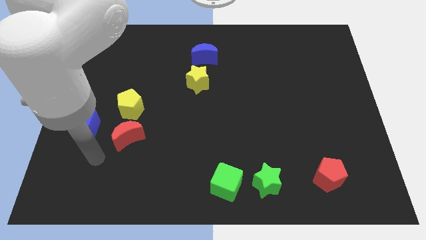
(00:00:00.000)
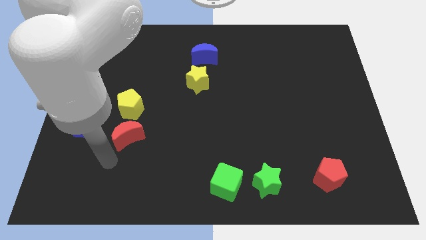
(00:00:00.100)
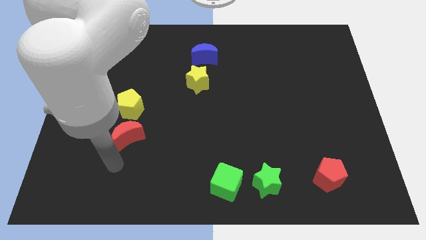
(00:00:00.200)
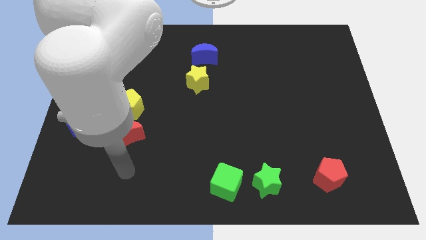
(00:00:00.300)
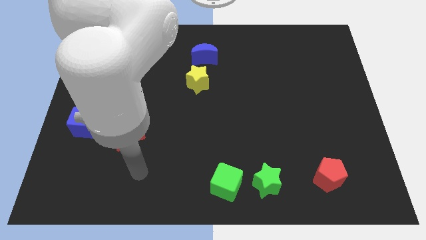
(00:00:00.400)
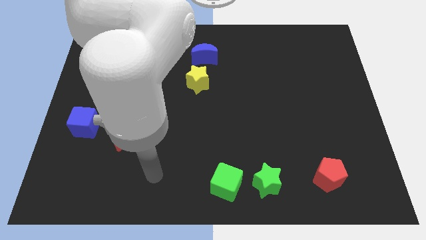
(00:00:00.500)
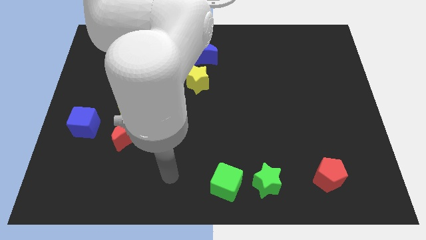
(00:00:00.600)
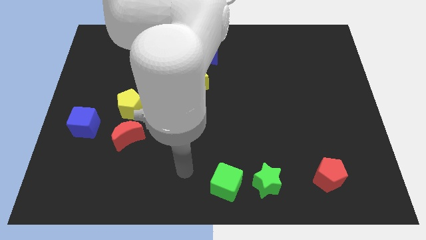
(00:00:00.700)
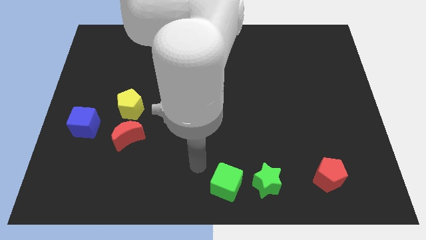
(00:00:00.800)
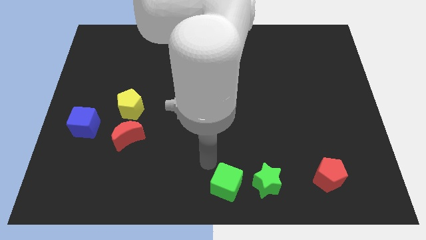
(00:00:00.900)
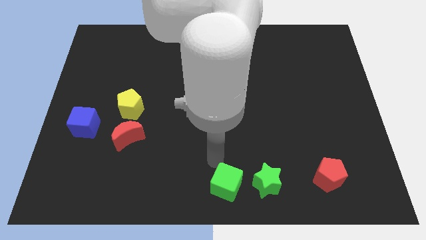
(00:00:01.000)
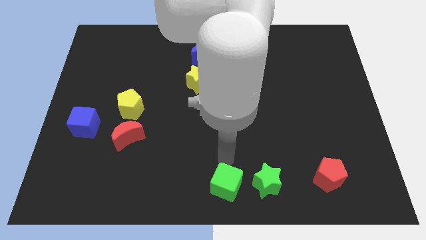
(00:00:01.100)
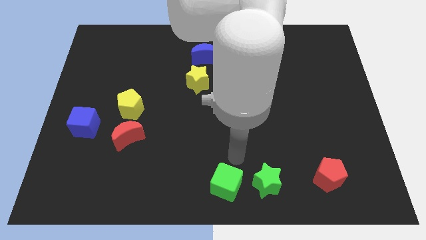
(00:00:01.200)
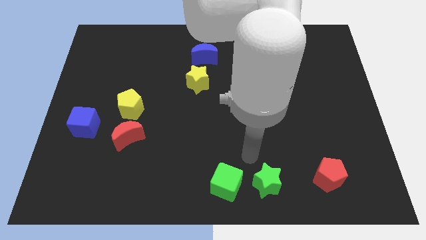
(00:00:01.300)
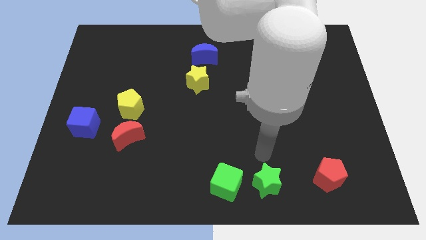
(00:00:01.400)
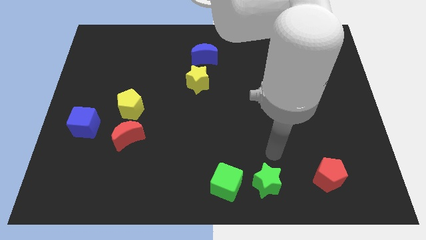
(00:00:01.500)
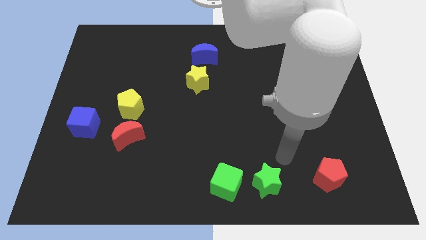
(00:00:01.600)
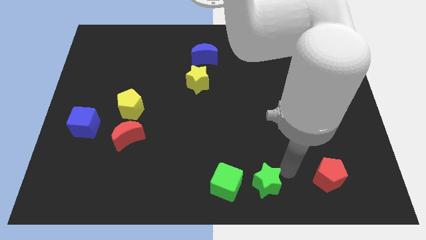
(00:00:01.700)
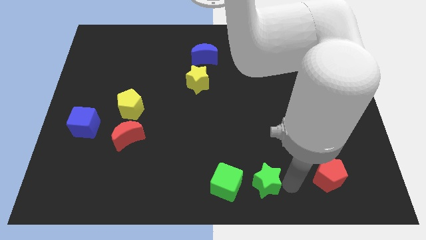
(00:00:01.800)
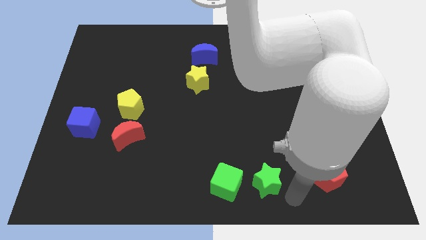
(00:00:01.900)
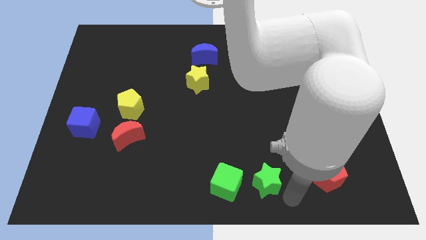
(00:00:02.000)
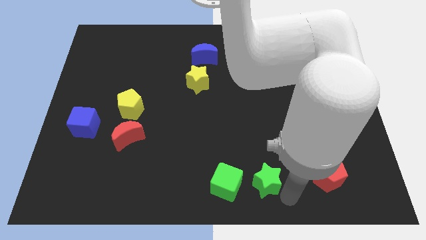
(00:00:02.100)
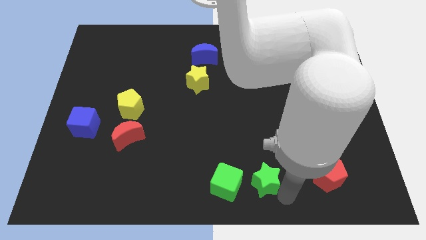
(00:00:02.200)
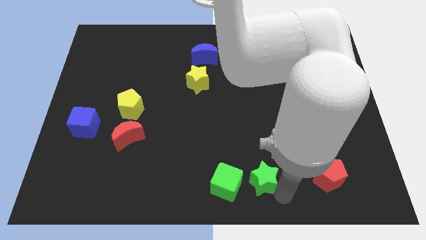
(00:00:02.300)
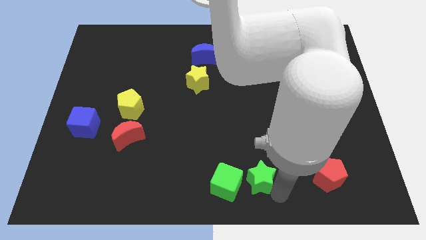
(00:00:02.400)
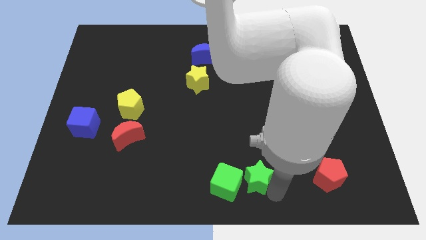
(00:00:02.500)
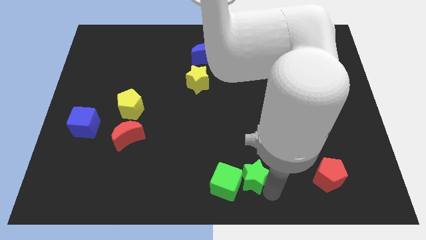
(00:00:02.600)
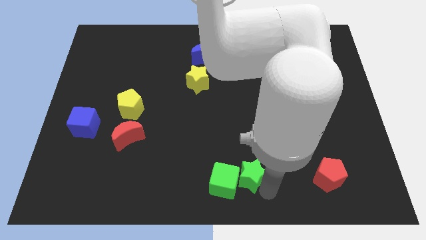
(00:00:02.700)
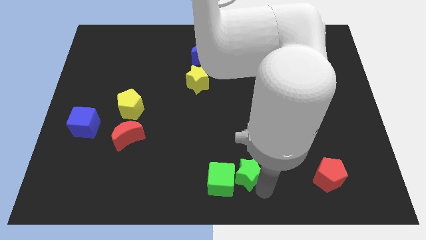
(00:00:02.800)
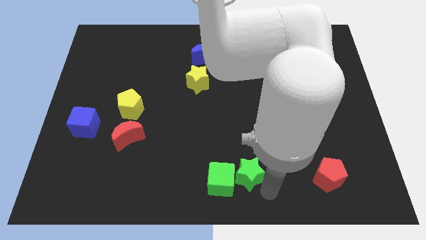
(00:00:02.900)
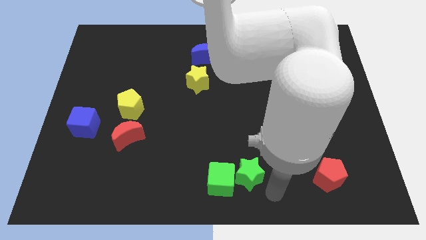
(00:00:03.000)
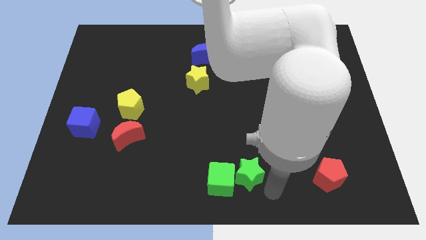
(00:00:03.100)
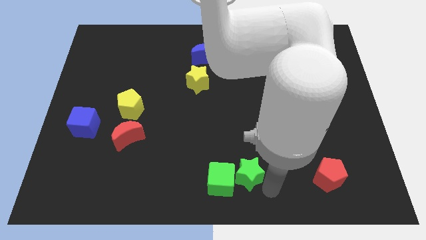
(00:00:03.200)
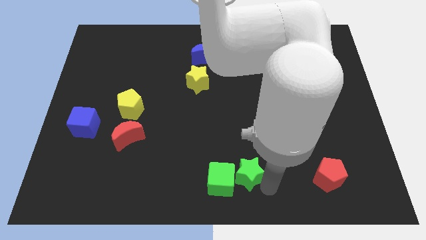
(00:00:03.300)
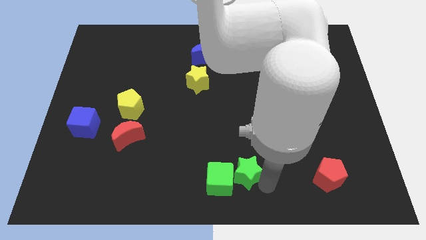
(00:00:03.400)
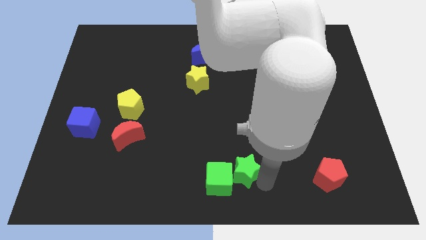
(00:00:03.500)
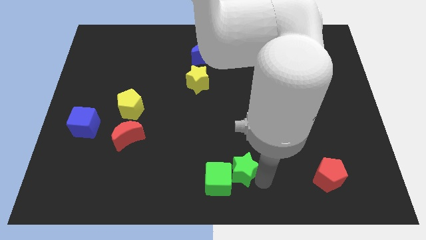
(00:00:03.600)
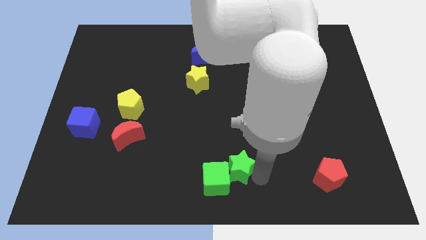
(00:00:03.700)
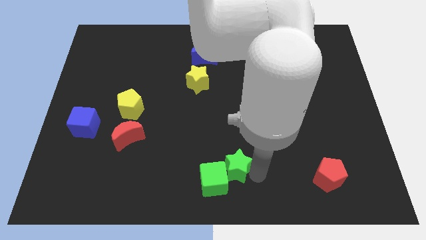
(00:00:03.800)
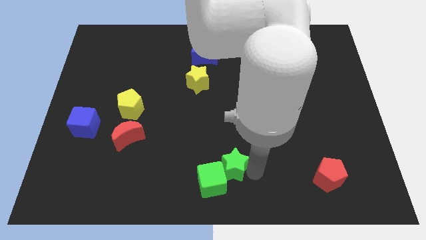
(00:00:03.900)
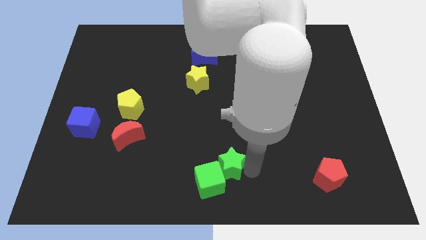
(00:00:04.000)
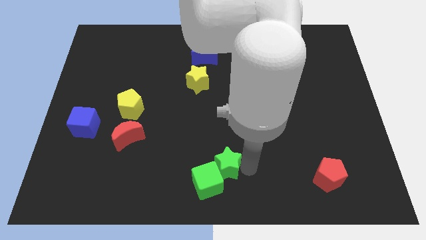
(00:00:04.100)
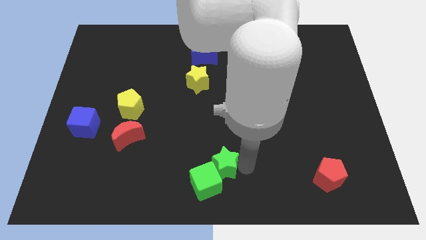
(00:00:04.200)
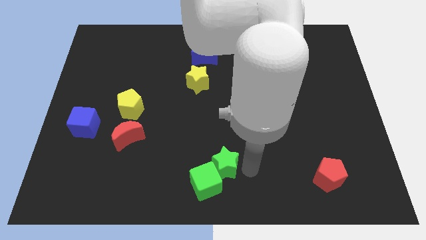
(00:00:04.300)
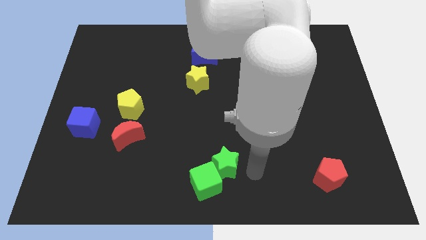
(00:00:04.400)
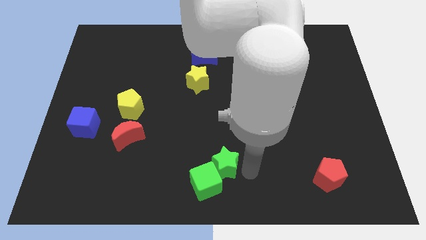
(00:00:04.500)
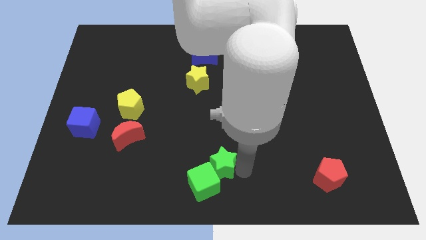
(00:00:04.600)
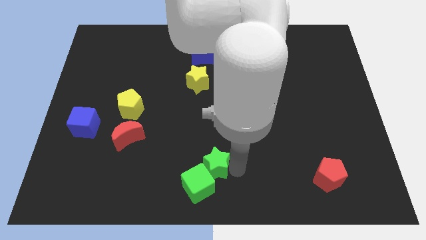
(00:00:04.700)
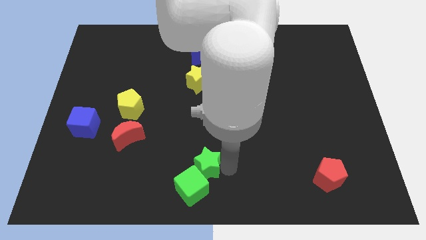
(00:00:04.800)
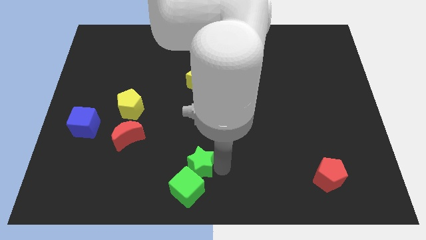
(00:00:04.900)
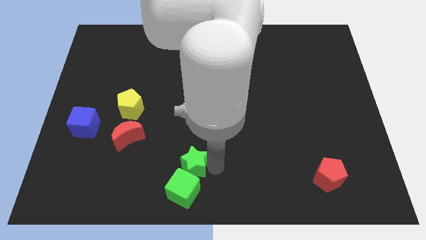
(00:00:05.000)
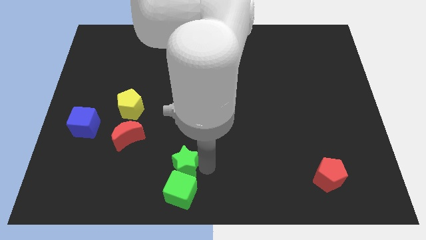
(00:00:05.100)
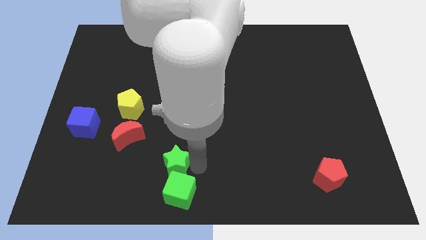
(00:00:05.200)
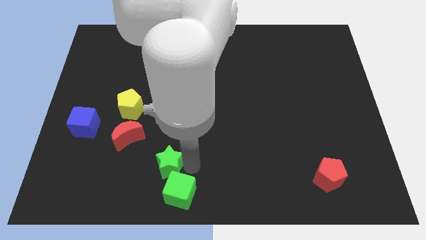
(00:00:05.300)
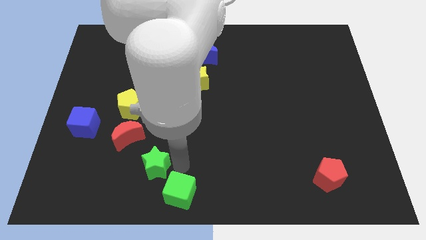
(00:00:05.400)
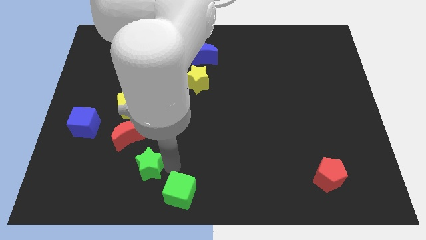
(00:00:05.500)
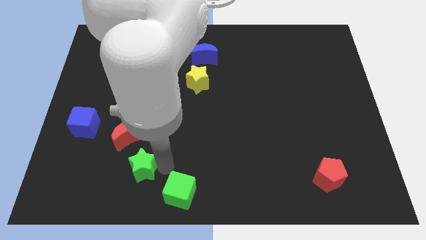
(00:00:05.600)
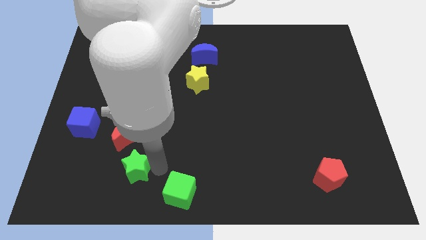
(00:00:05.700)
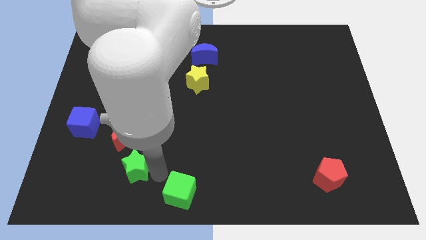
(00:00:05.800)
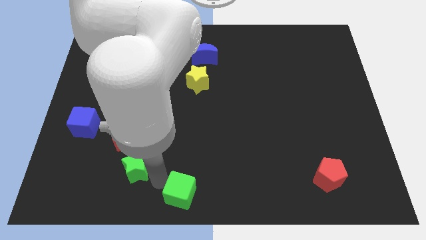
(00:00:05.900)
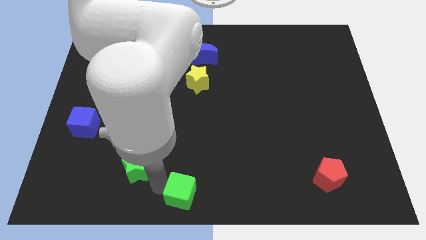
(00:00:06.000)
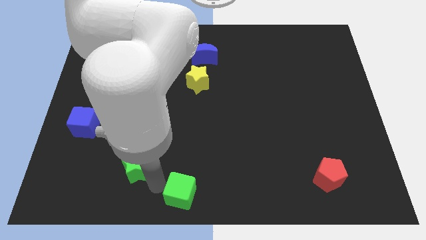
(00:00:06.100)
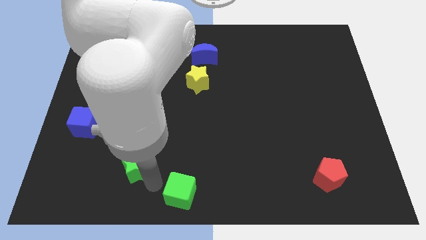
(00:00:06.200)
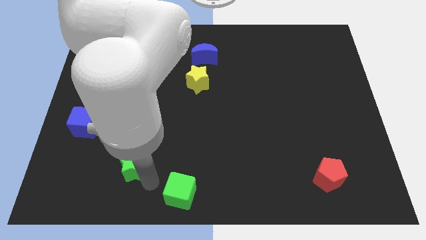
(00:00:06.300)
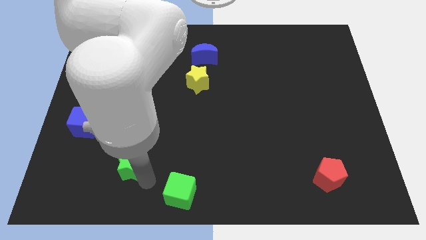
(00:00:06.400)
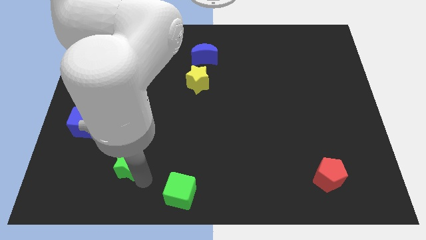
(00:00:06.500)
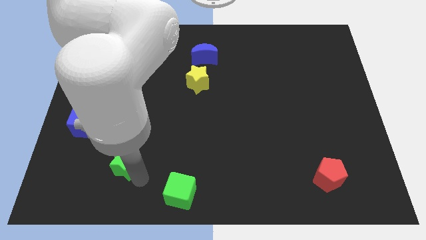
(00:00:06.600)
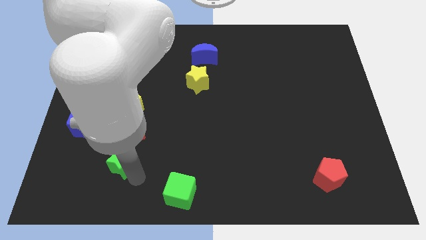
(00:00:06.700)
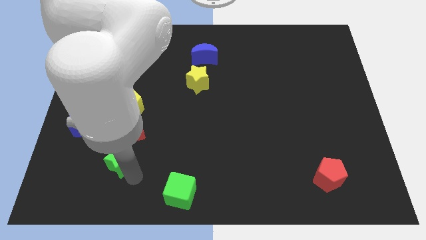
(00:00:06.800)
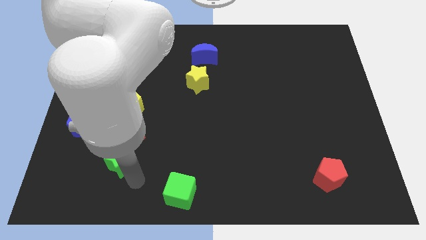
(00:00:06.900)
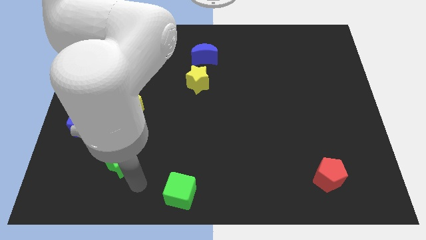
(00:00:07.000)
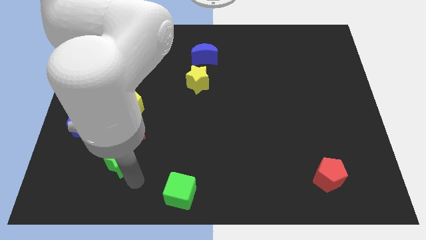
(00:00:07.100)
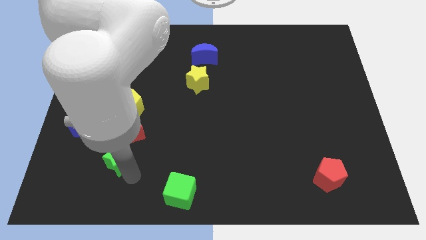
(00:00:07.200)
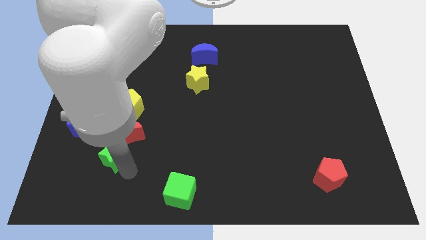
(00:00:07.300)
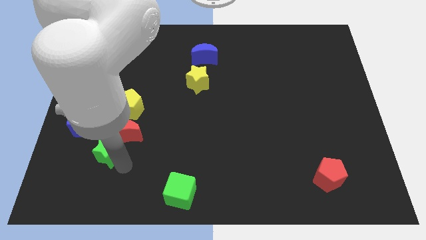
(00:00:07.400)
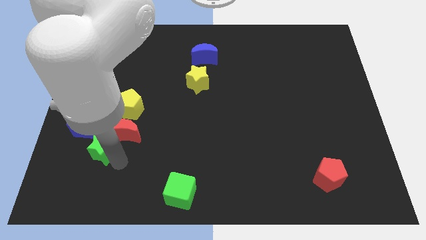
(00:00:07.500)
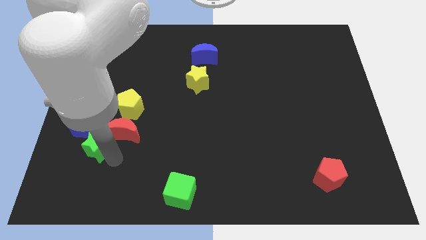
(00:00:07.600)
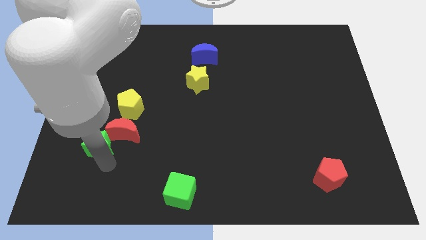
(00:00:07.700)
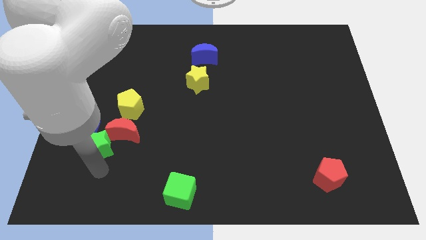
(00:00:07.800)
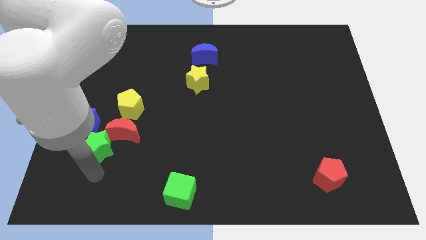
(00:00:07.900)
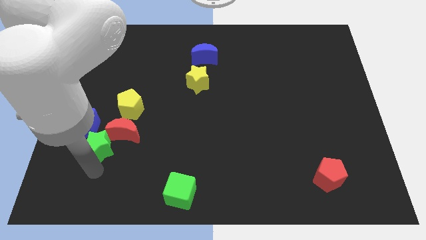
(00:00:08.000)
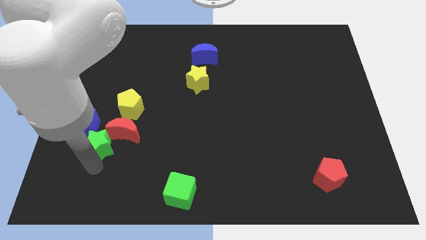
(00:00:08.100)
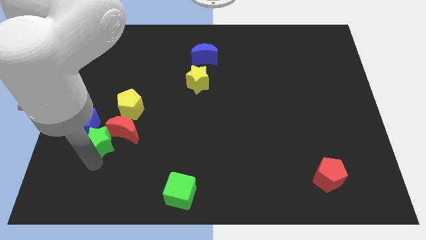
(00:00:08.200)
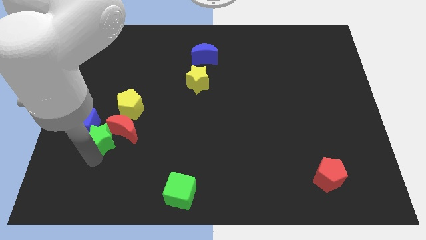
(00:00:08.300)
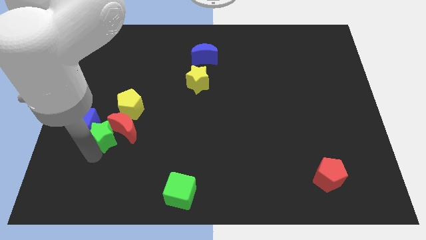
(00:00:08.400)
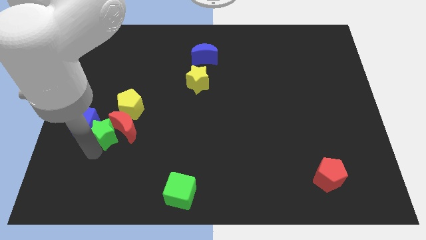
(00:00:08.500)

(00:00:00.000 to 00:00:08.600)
slide the green star diagonally up and to the left of the red moon
